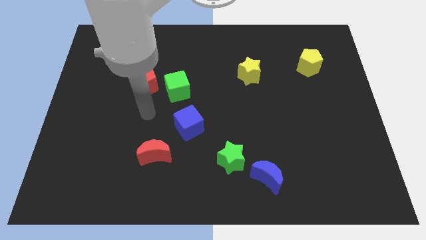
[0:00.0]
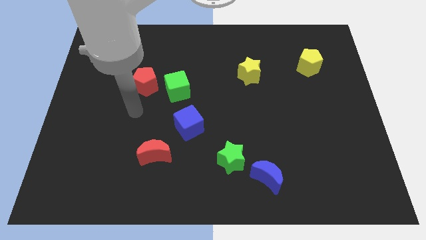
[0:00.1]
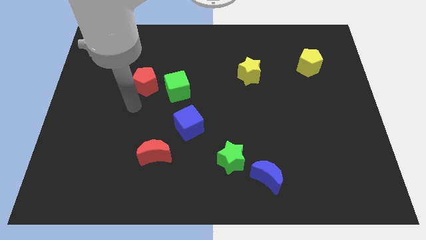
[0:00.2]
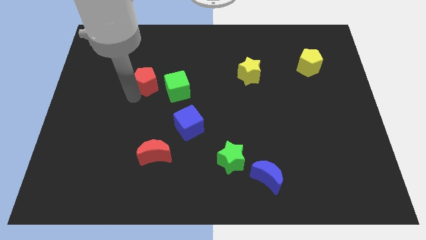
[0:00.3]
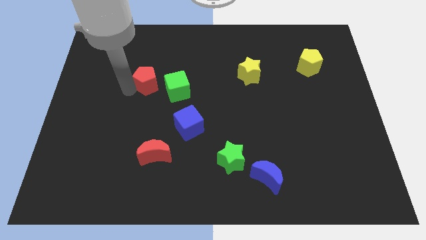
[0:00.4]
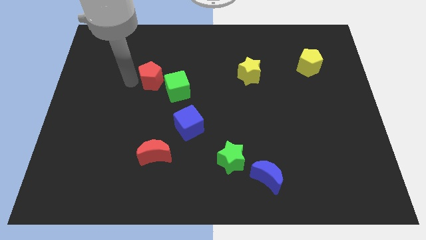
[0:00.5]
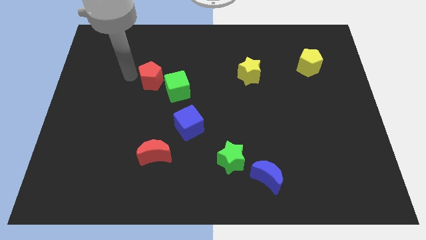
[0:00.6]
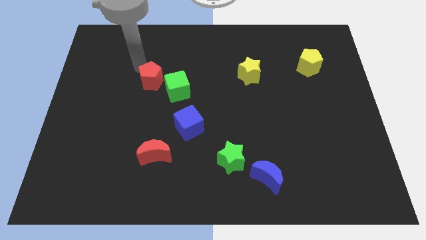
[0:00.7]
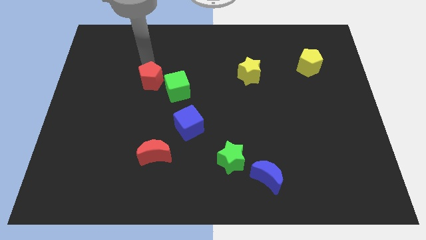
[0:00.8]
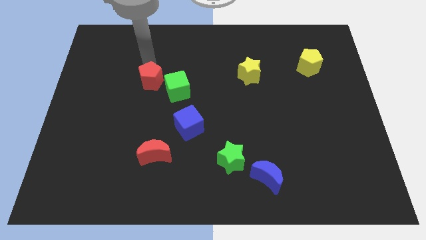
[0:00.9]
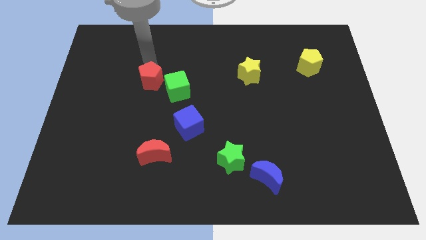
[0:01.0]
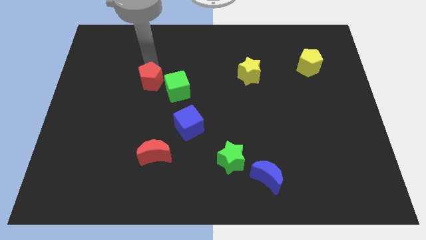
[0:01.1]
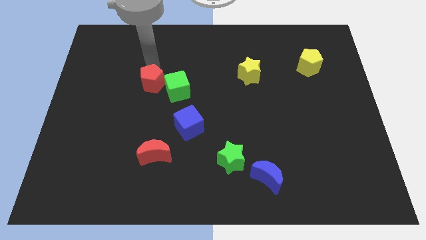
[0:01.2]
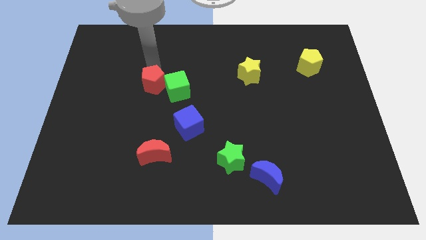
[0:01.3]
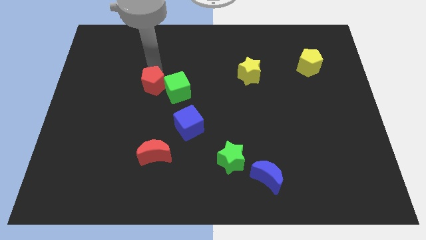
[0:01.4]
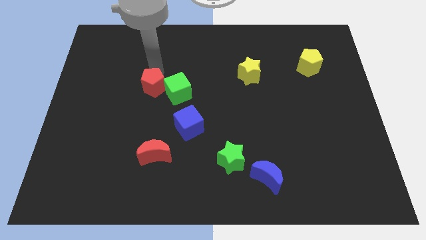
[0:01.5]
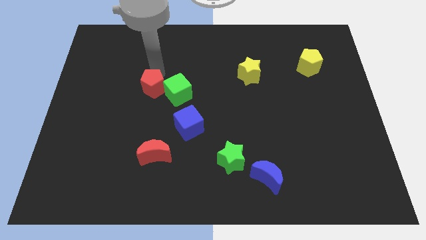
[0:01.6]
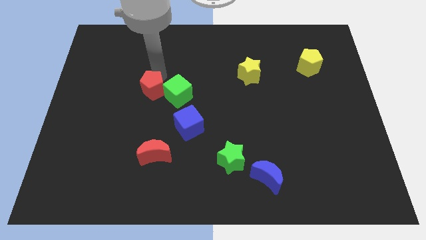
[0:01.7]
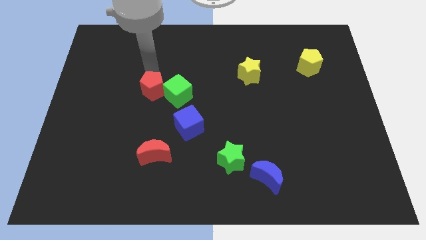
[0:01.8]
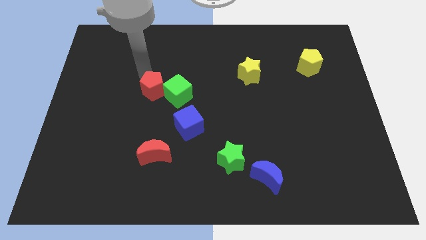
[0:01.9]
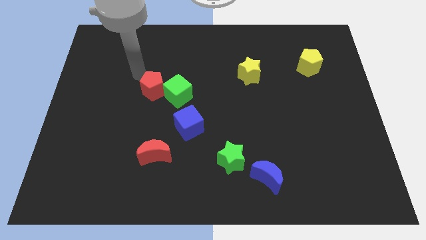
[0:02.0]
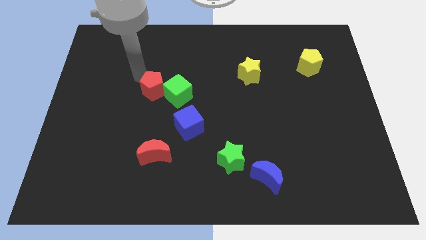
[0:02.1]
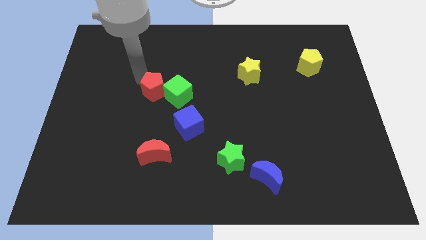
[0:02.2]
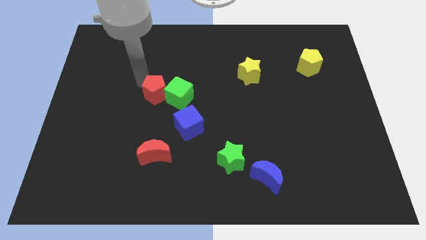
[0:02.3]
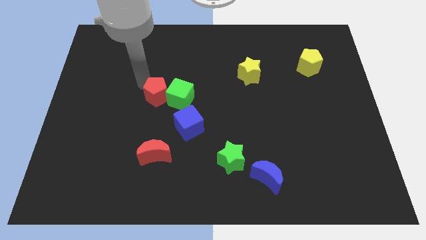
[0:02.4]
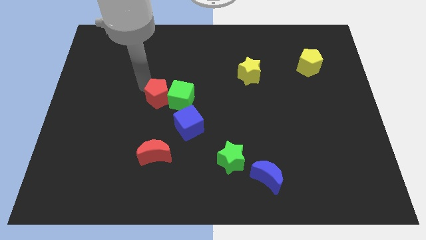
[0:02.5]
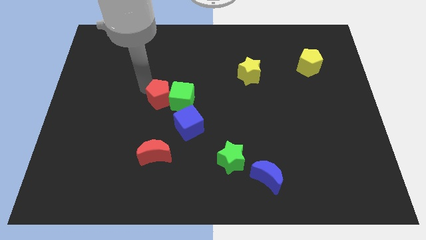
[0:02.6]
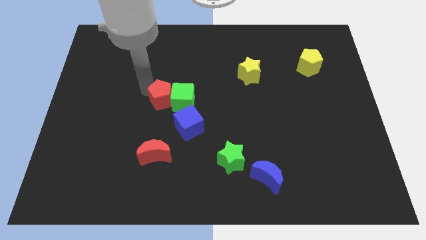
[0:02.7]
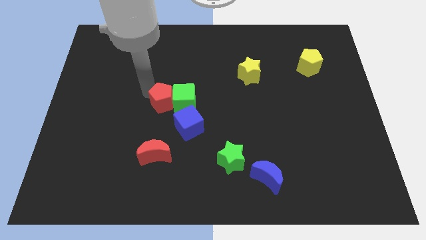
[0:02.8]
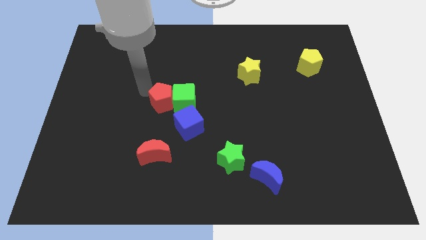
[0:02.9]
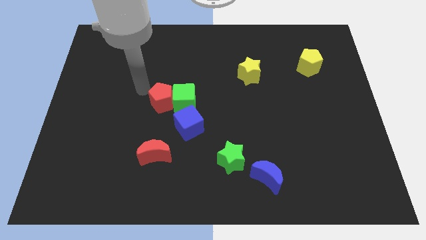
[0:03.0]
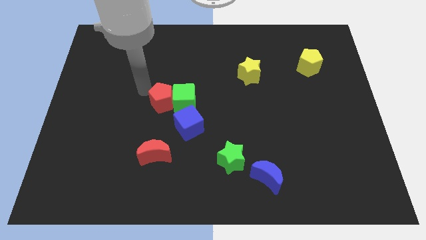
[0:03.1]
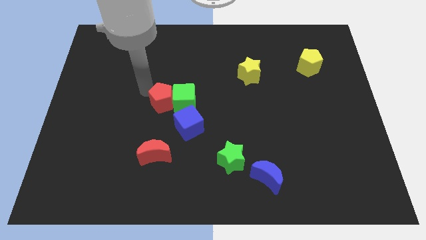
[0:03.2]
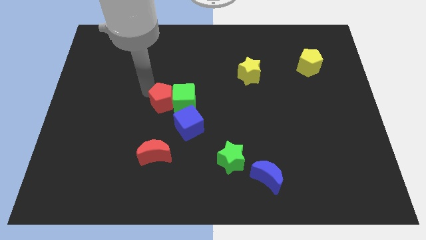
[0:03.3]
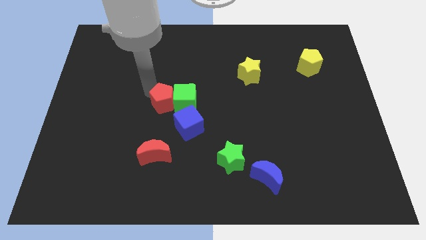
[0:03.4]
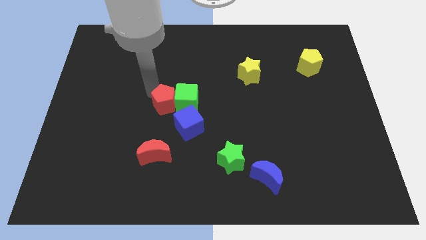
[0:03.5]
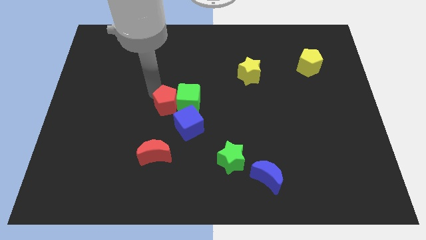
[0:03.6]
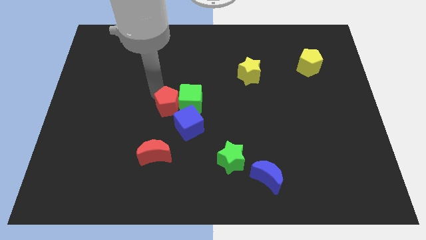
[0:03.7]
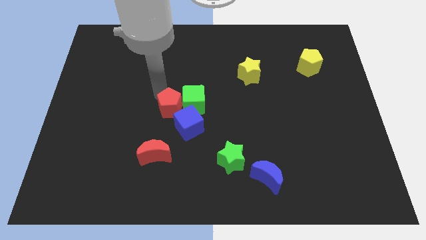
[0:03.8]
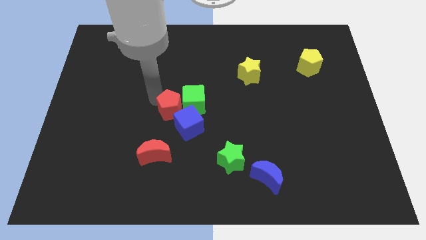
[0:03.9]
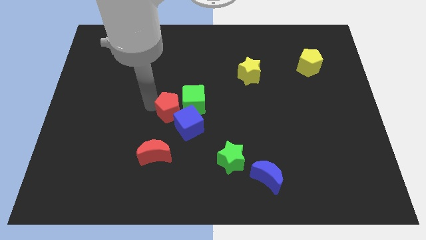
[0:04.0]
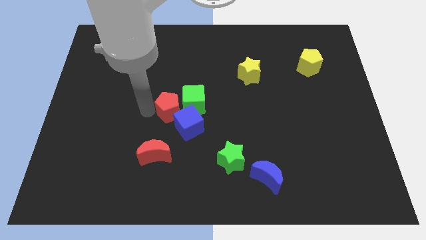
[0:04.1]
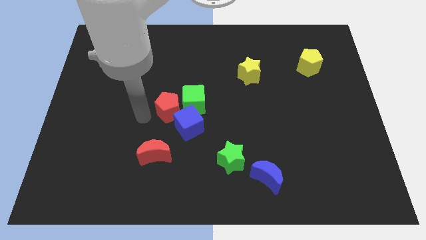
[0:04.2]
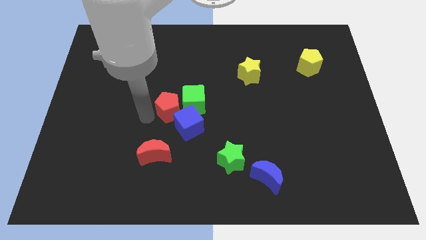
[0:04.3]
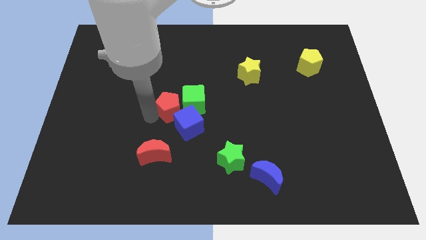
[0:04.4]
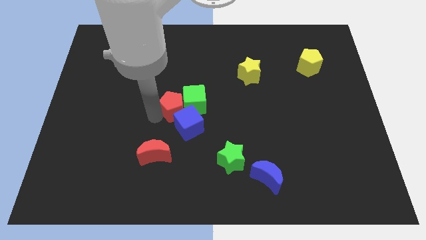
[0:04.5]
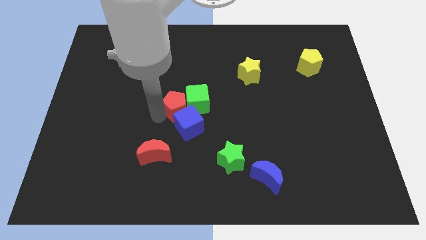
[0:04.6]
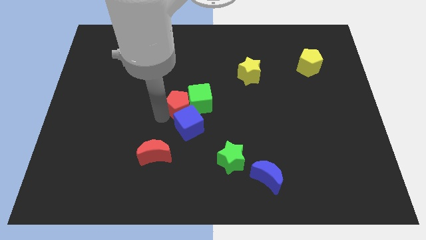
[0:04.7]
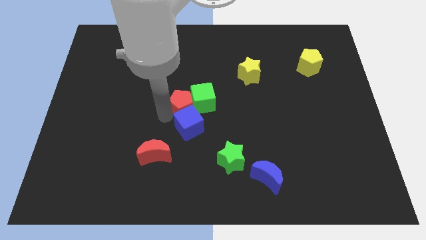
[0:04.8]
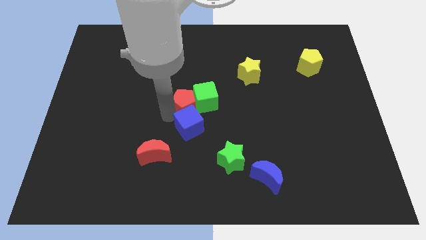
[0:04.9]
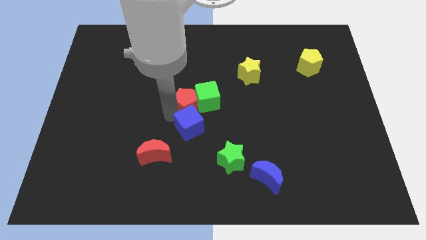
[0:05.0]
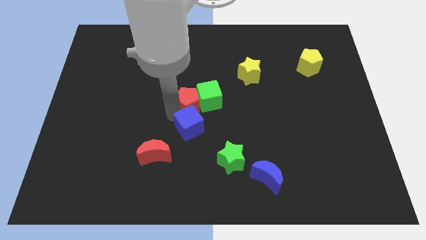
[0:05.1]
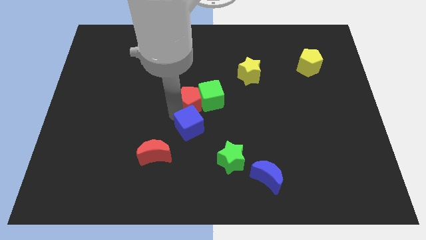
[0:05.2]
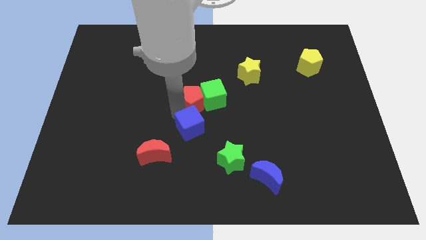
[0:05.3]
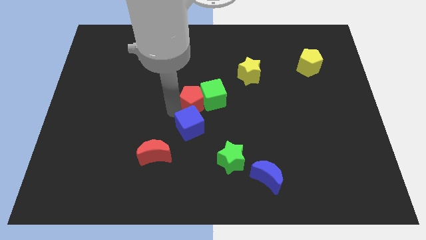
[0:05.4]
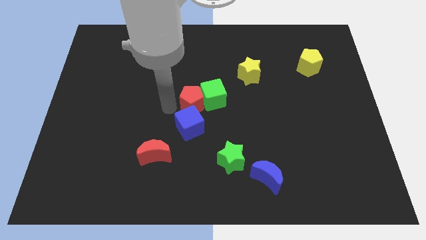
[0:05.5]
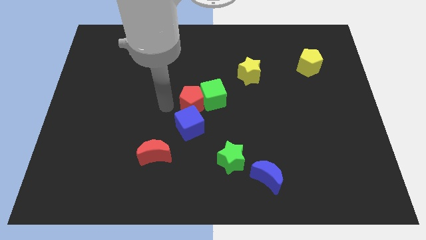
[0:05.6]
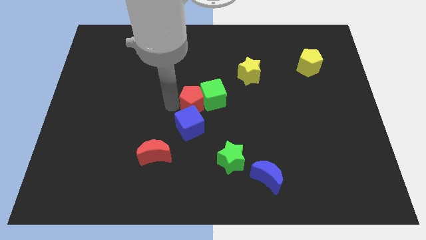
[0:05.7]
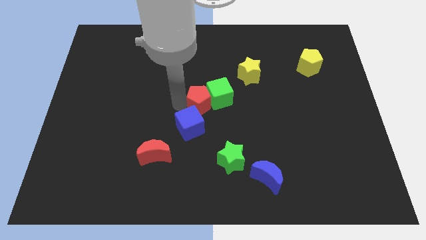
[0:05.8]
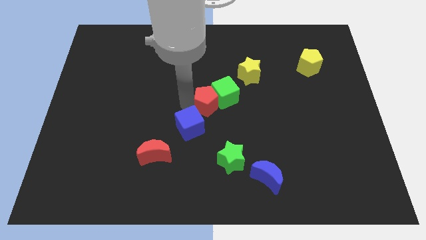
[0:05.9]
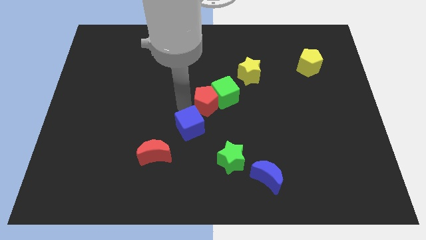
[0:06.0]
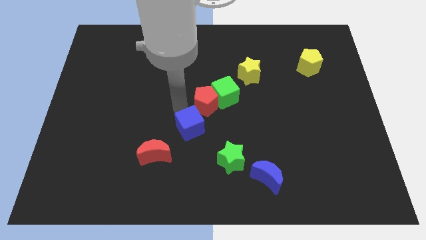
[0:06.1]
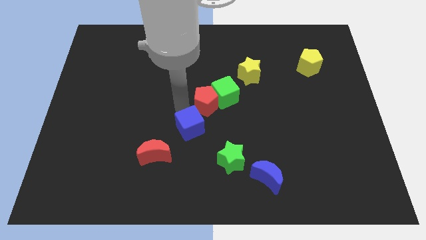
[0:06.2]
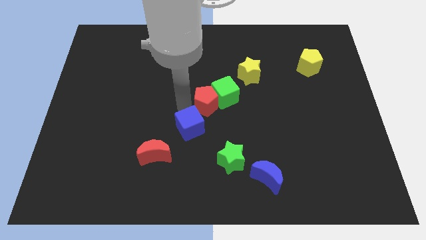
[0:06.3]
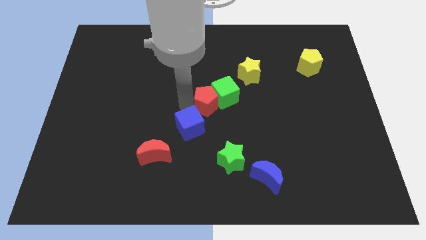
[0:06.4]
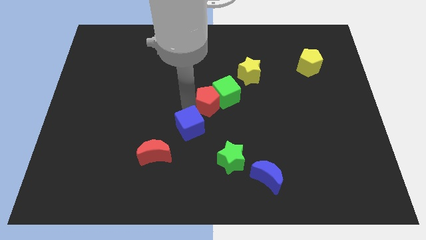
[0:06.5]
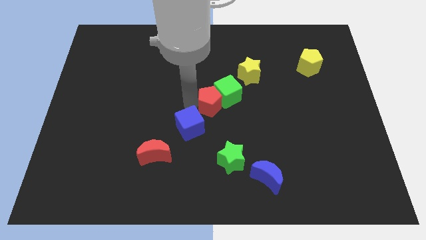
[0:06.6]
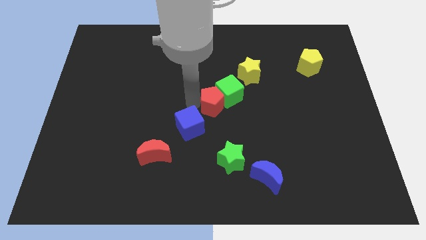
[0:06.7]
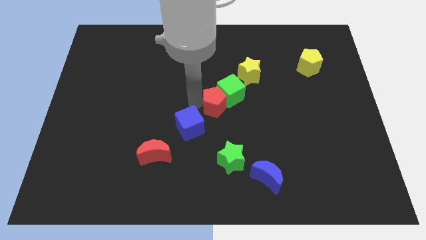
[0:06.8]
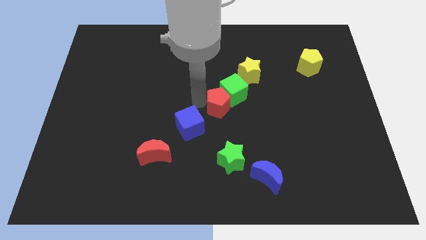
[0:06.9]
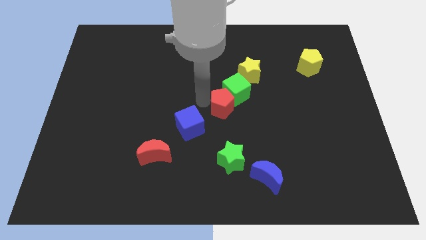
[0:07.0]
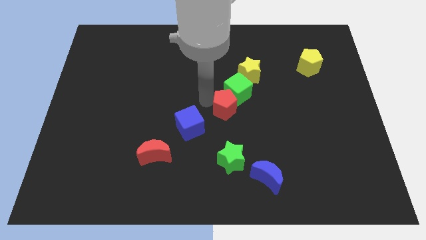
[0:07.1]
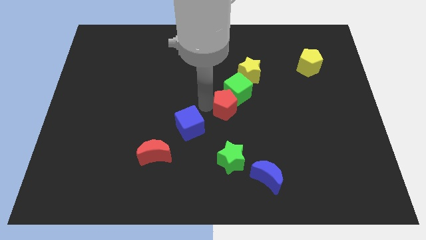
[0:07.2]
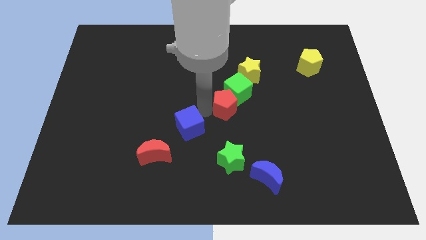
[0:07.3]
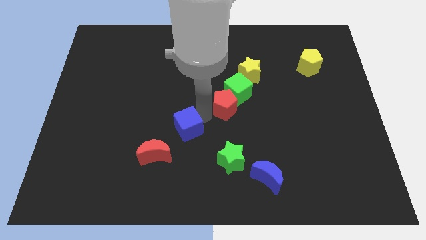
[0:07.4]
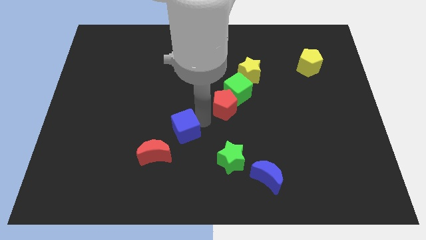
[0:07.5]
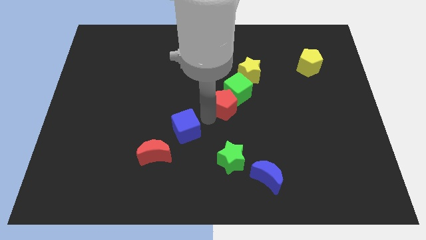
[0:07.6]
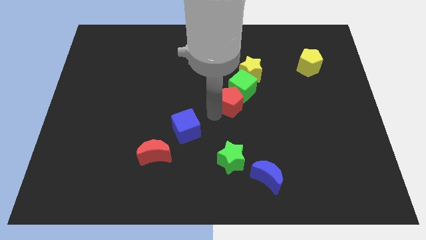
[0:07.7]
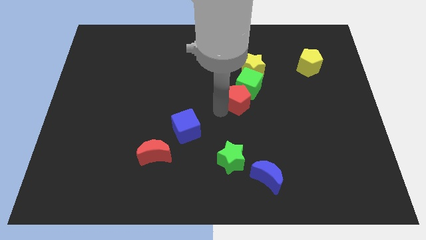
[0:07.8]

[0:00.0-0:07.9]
push the red pentagon to the right

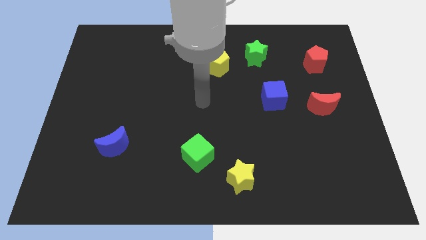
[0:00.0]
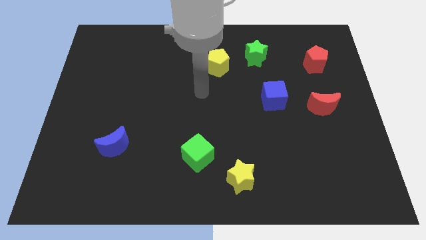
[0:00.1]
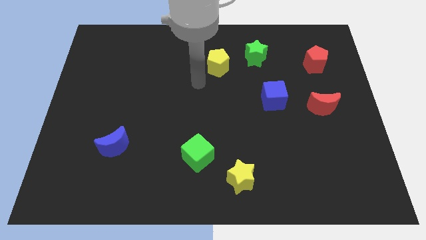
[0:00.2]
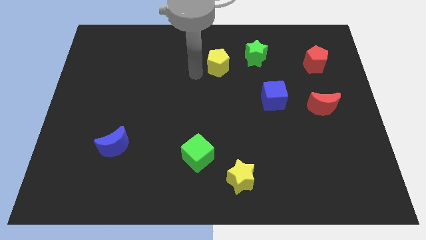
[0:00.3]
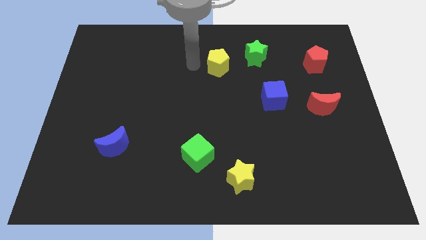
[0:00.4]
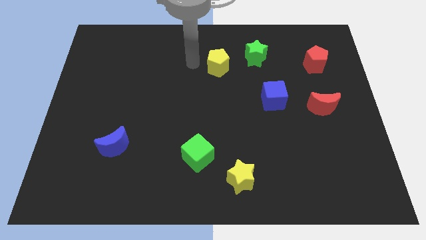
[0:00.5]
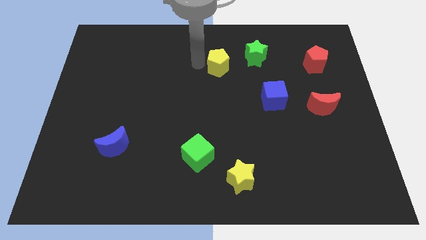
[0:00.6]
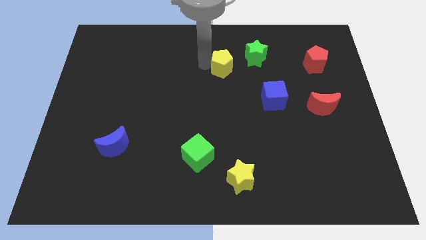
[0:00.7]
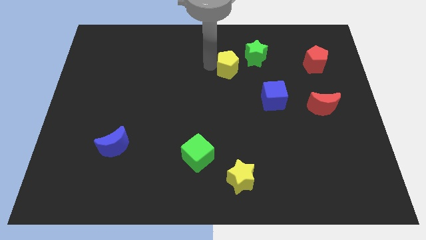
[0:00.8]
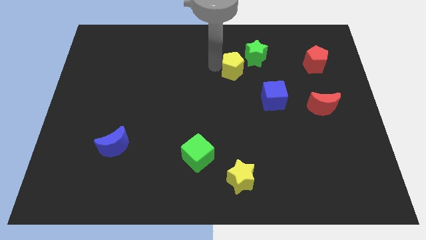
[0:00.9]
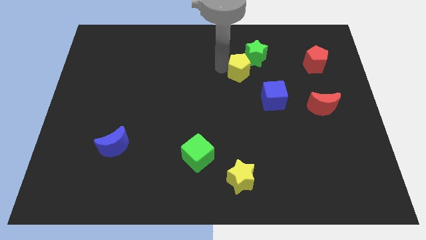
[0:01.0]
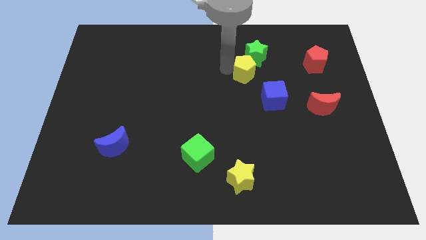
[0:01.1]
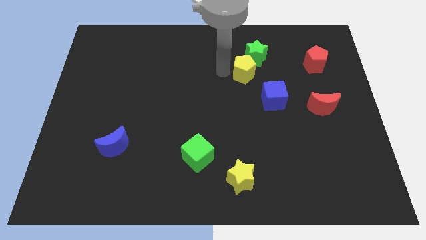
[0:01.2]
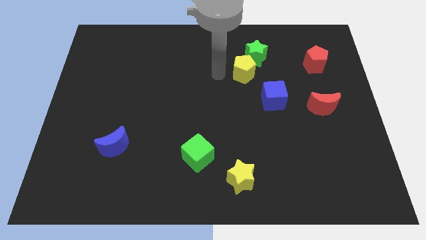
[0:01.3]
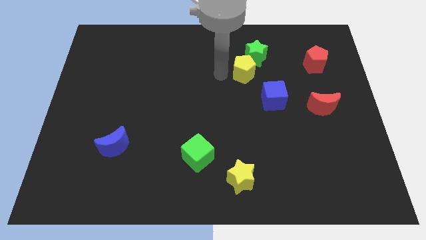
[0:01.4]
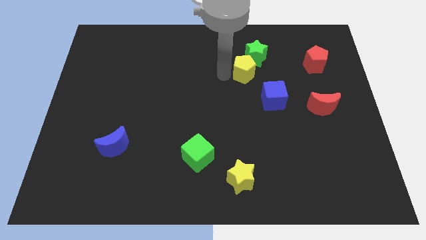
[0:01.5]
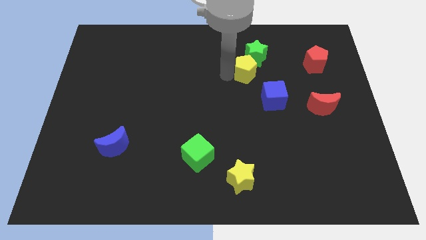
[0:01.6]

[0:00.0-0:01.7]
push the yellow pentagon a little to the right
